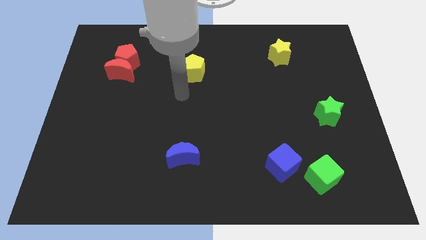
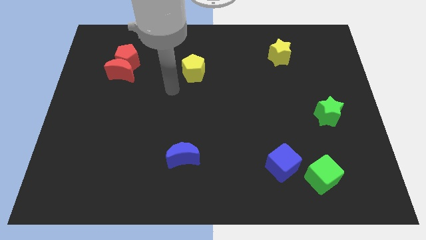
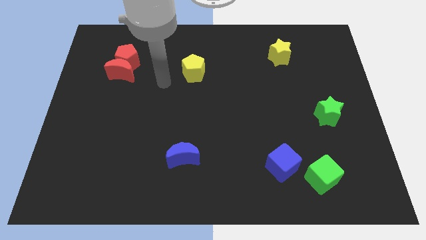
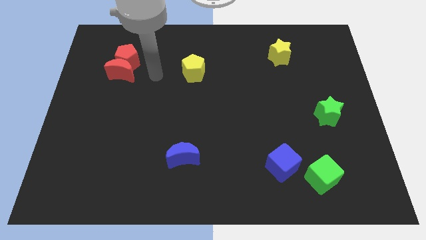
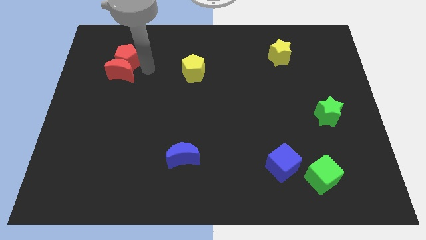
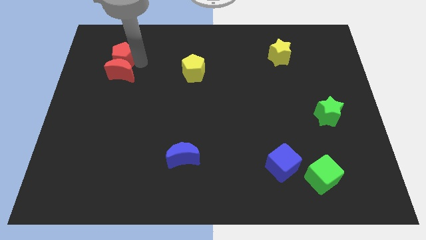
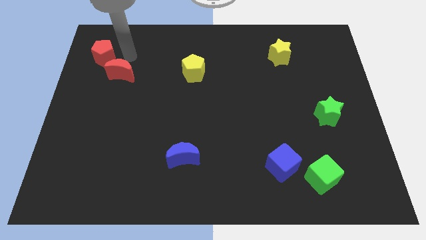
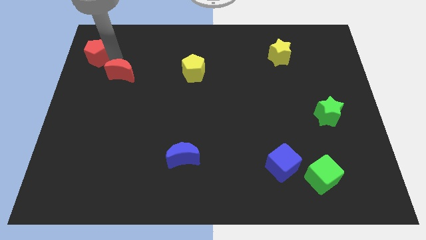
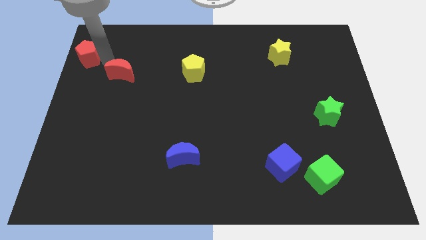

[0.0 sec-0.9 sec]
pull the red moon apart from the red pentagon

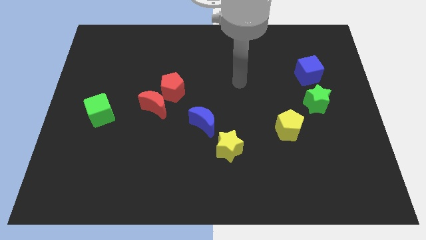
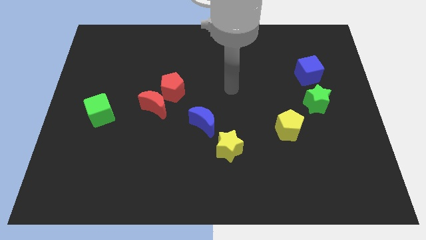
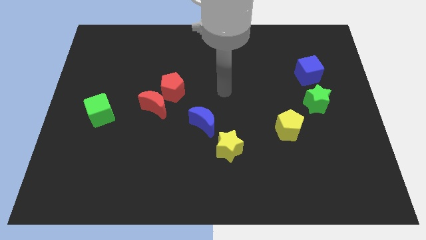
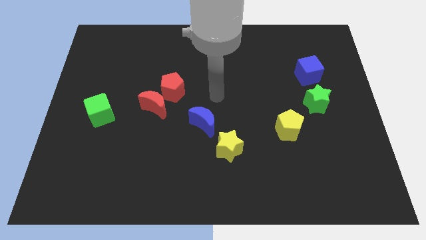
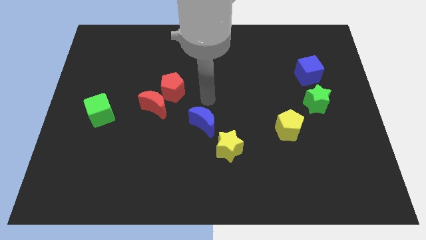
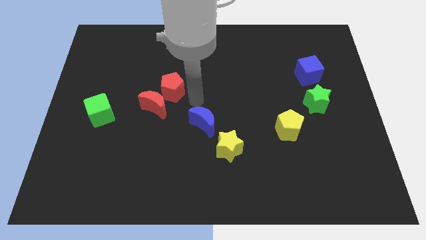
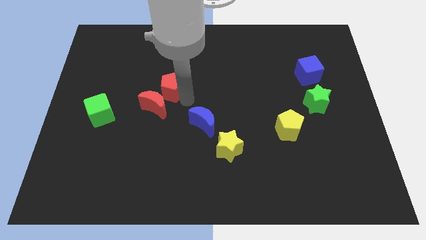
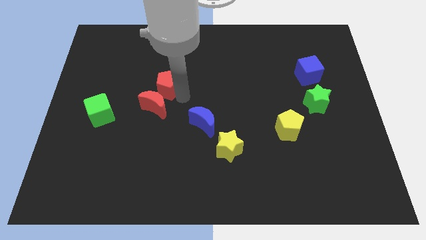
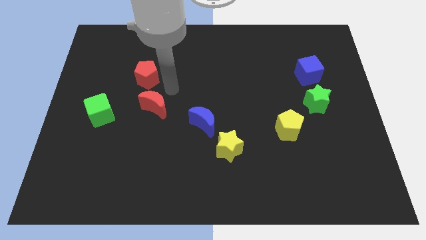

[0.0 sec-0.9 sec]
separate the red moon from the red pentagon

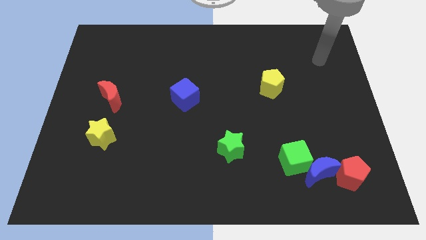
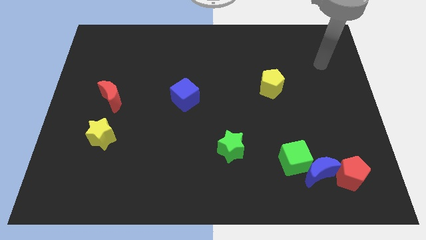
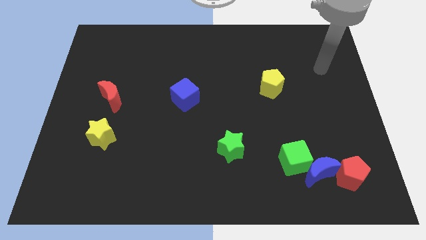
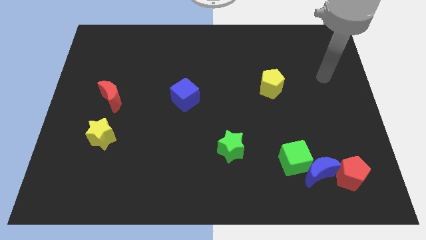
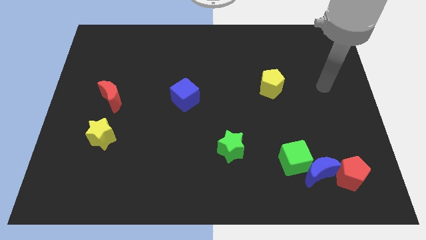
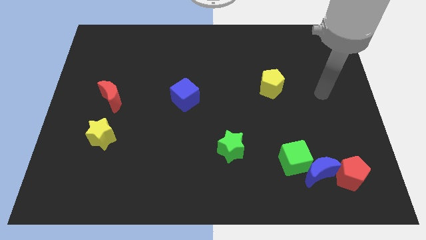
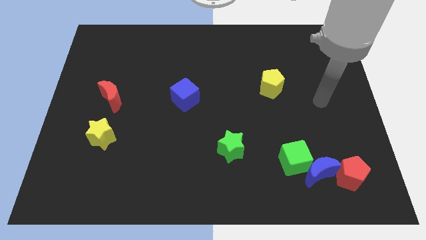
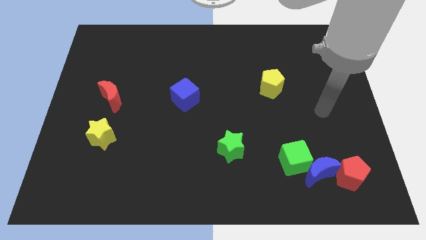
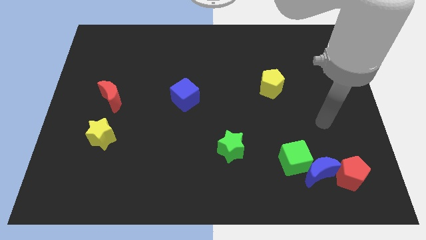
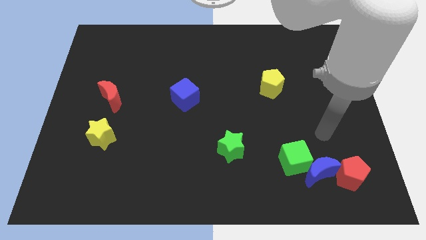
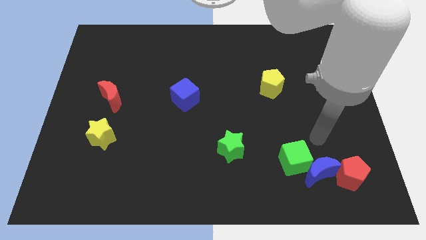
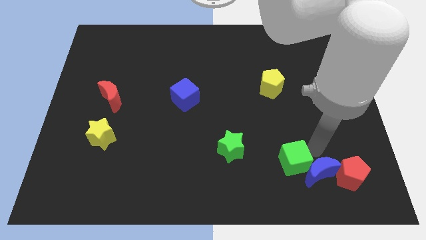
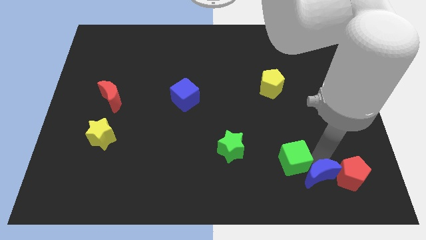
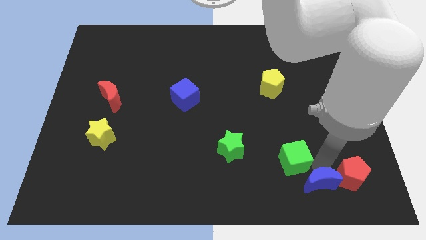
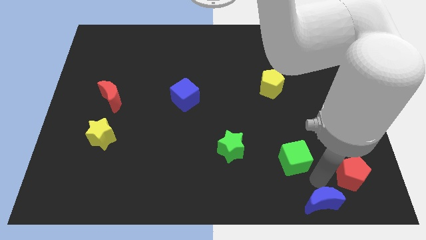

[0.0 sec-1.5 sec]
move the green cube away from the blue moon

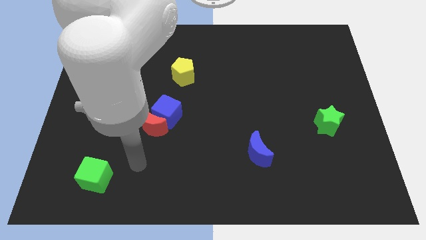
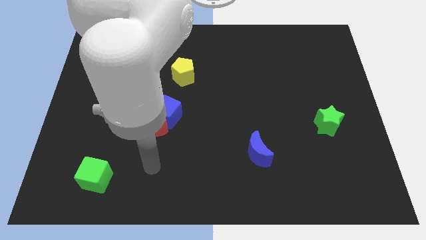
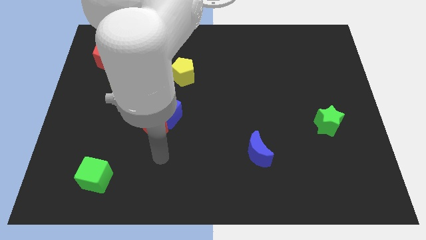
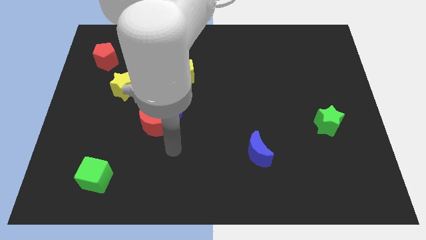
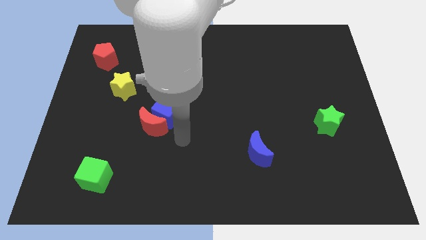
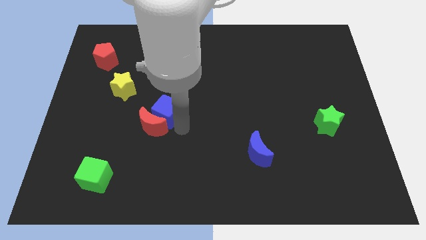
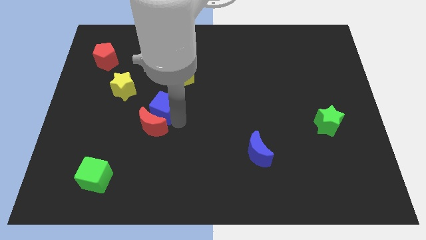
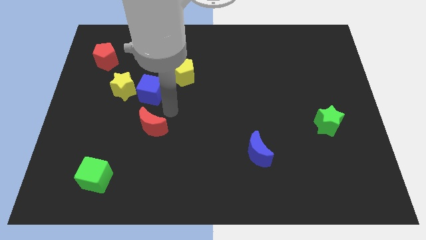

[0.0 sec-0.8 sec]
pull the red moon apart from the blue cube

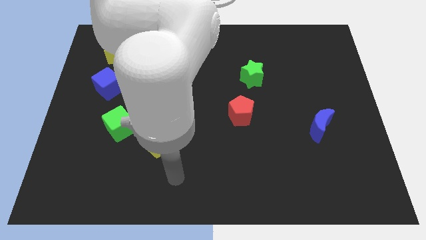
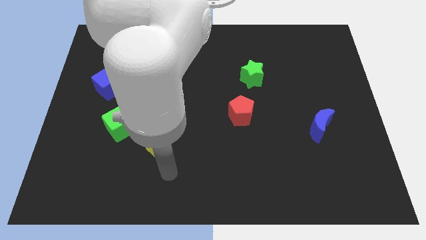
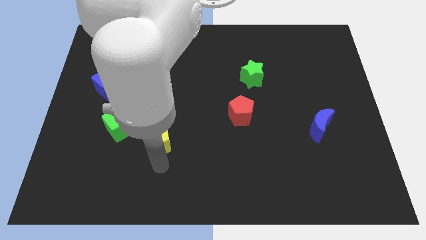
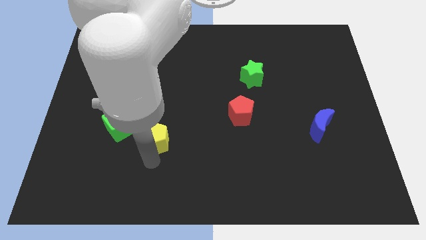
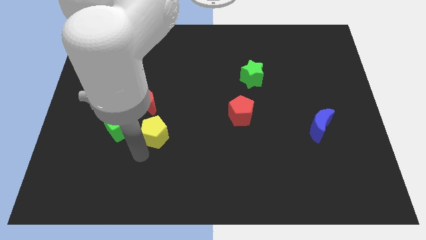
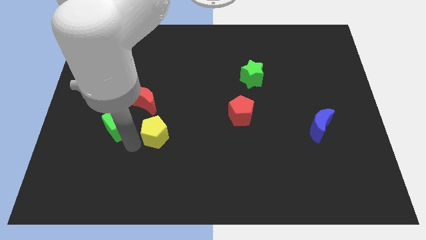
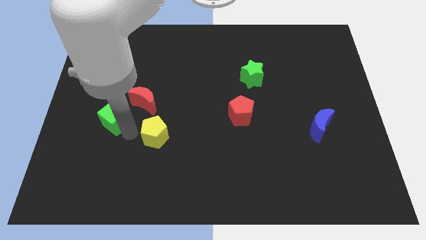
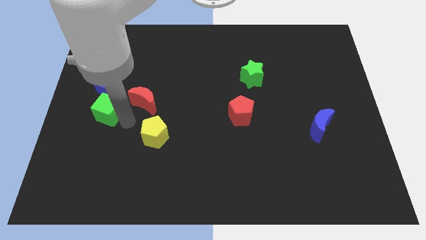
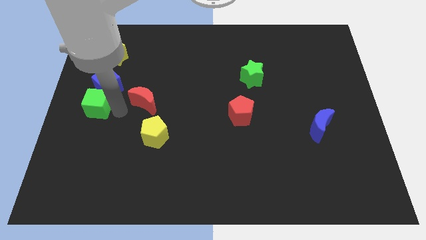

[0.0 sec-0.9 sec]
pull the red moon apart from the green cube

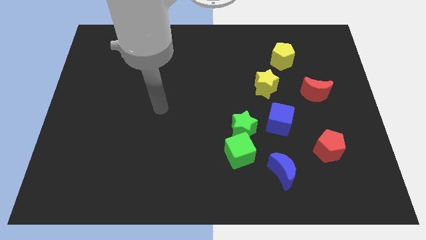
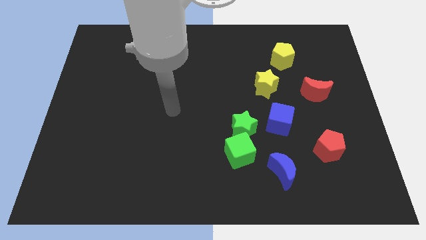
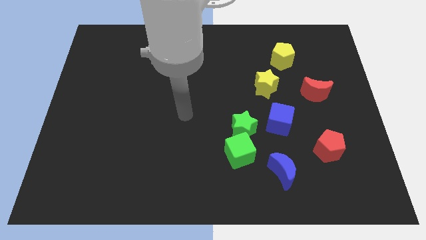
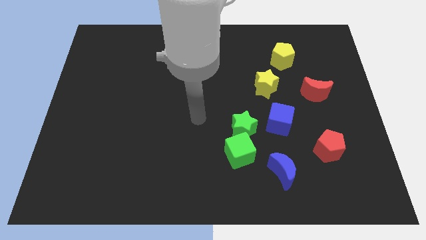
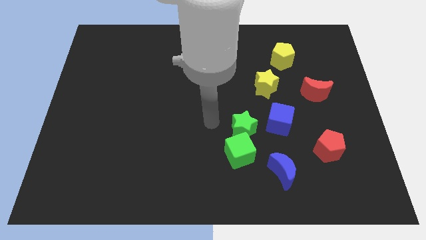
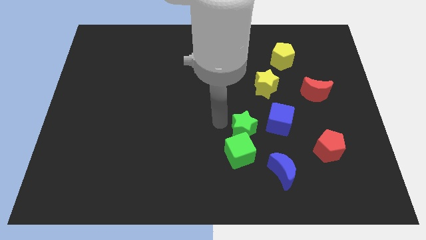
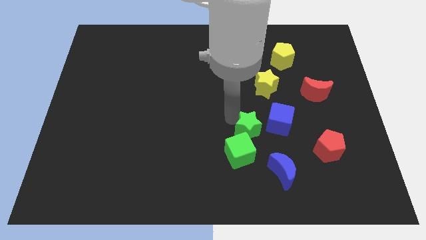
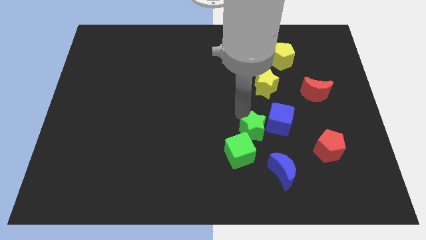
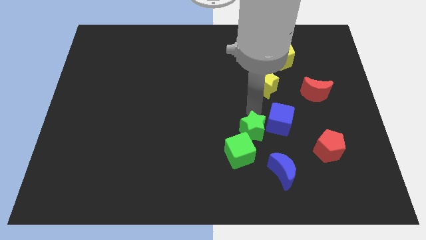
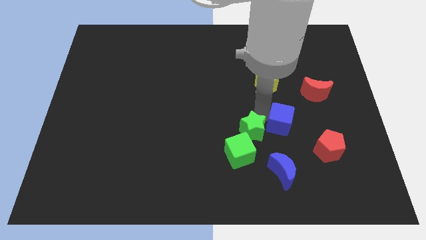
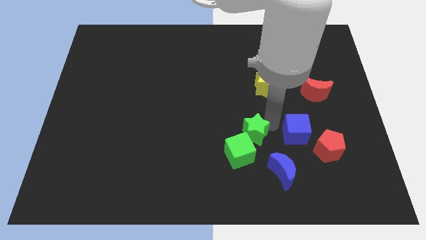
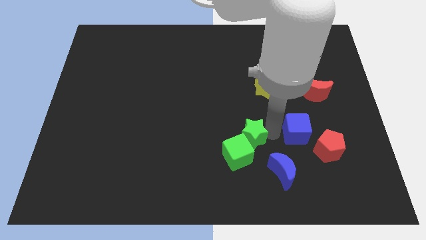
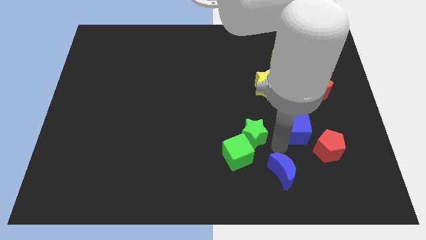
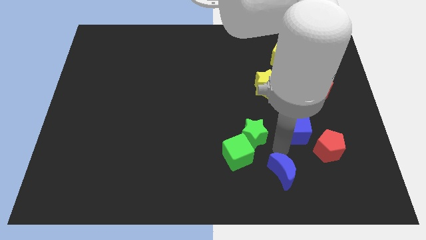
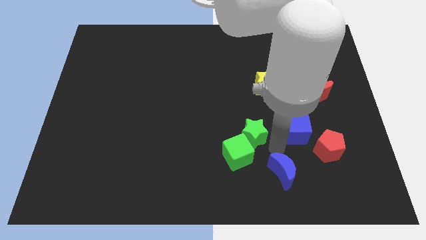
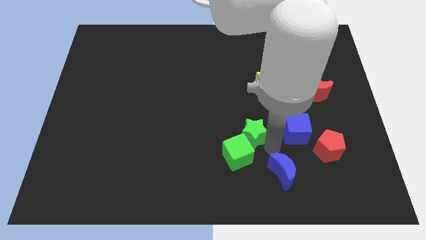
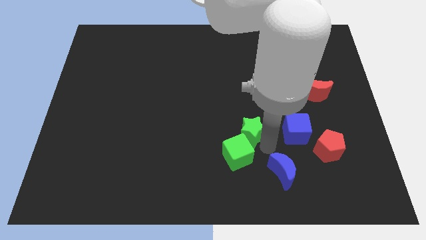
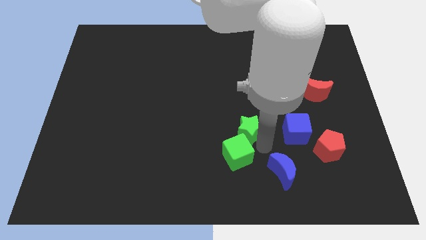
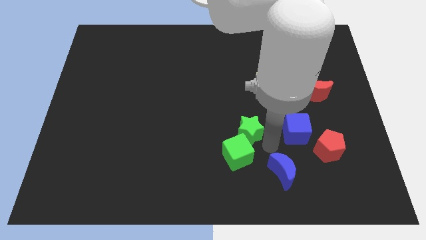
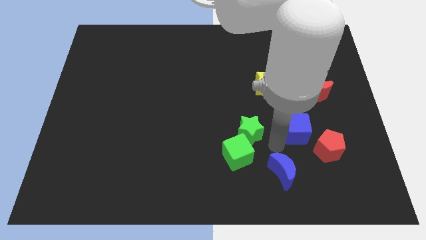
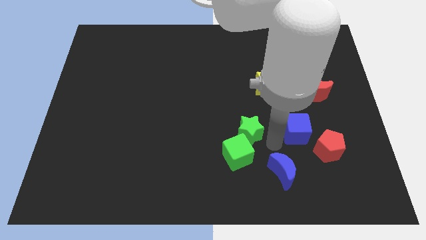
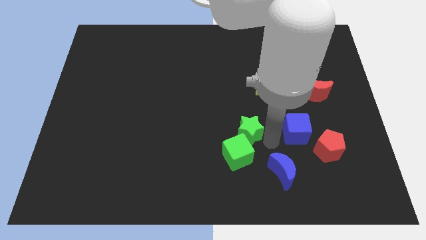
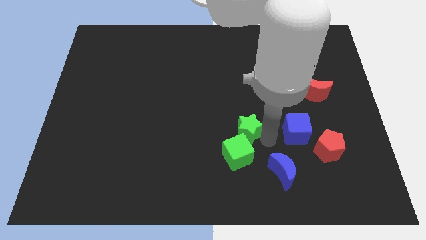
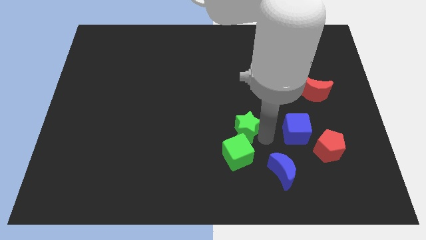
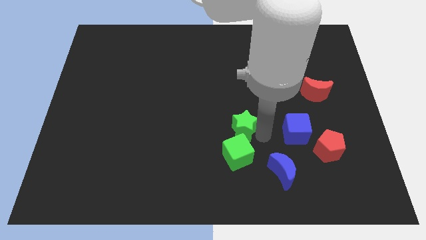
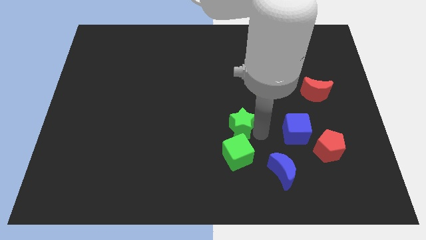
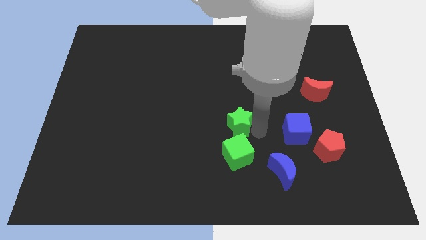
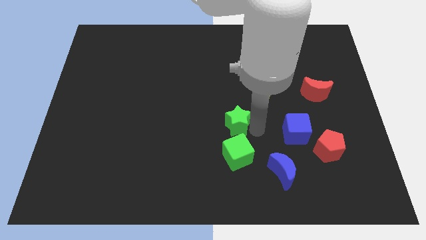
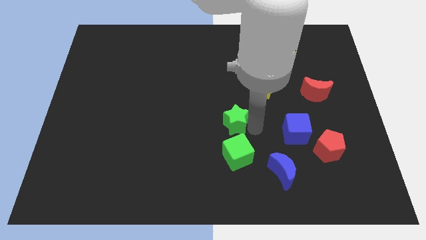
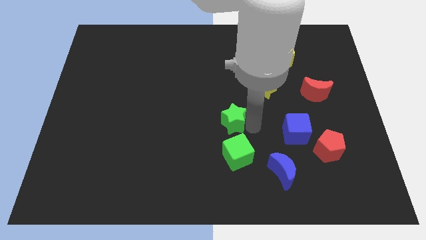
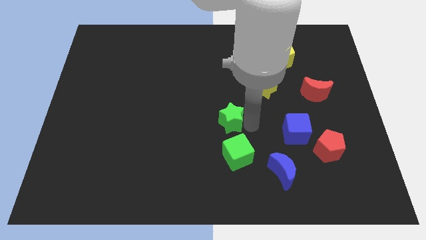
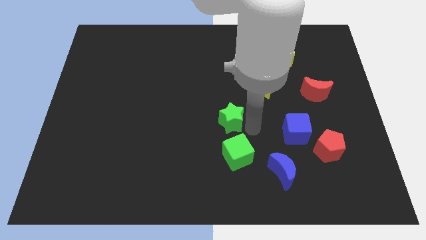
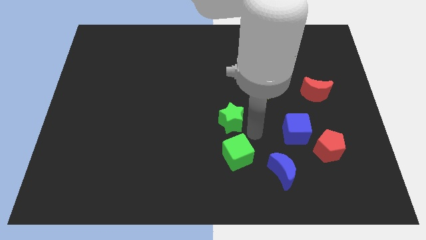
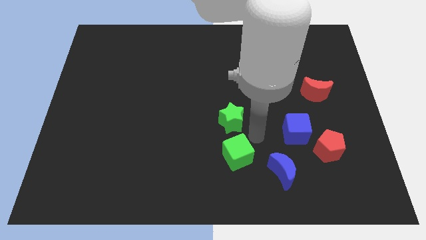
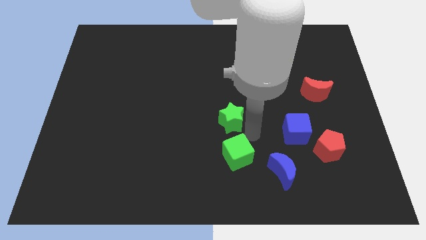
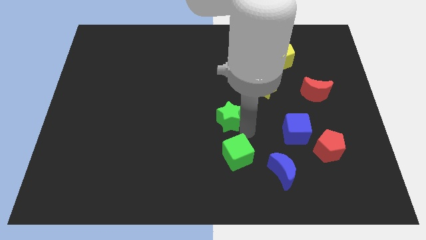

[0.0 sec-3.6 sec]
move the green star away from the green cube and blue cube

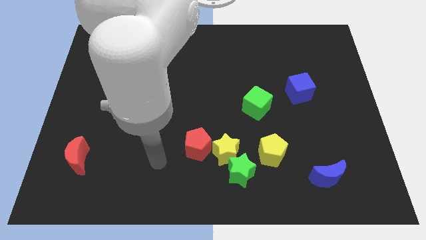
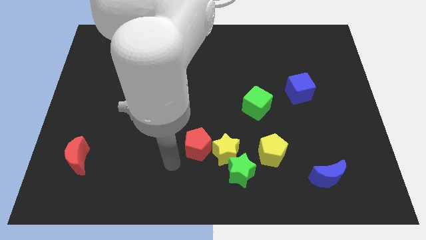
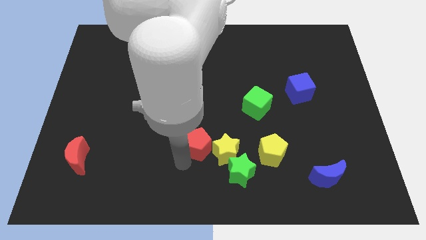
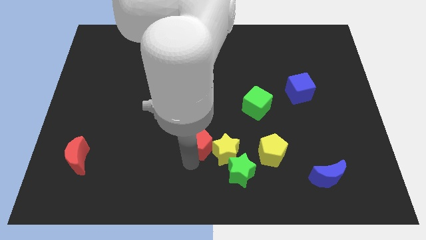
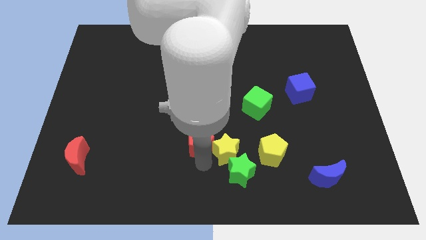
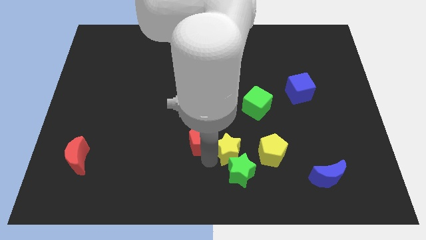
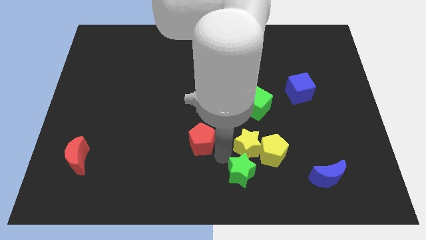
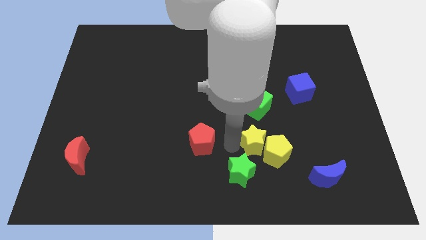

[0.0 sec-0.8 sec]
move the red pentagon away from the yellow star
